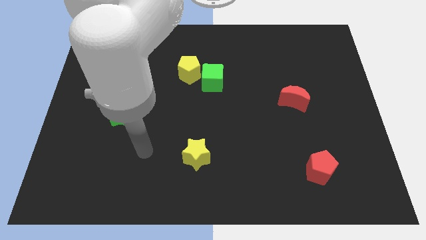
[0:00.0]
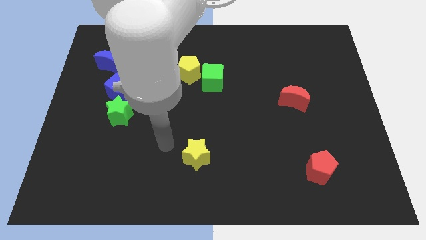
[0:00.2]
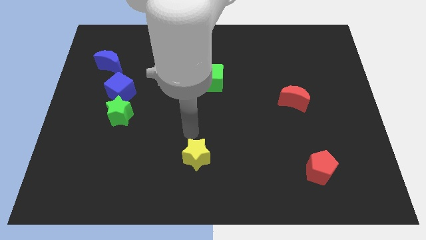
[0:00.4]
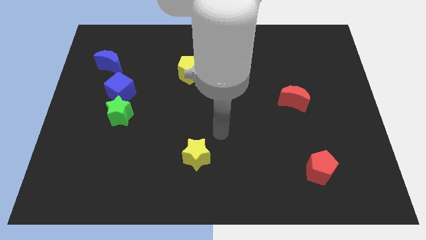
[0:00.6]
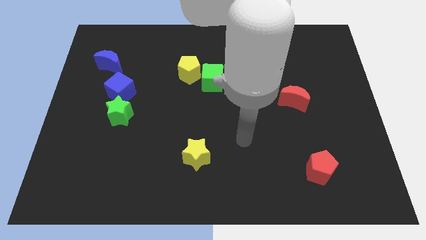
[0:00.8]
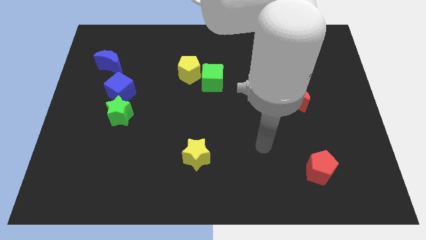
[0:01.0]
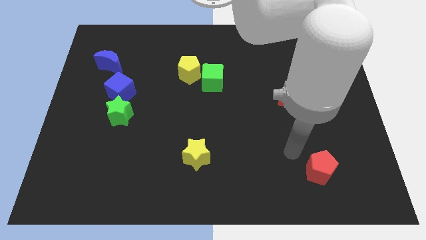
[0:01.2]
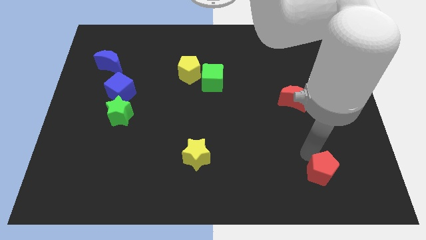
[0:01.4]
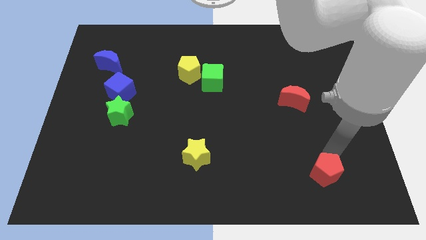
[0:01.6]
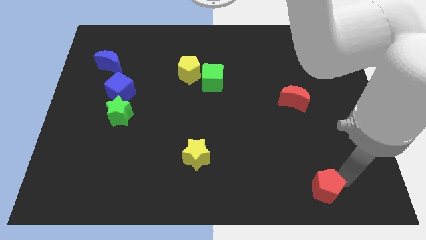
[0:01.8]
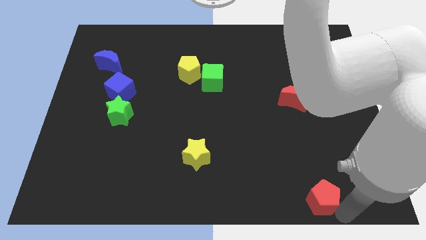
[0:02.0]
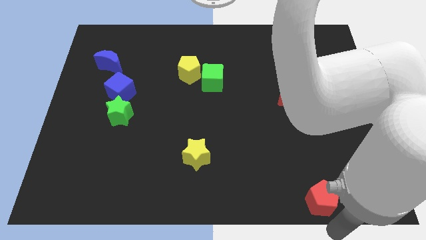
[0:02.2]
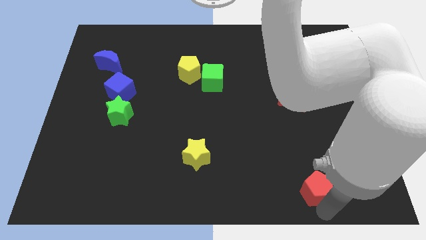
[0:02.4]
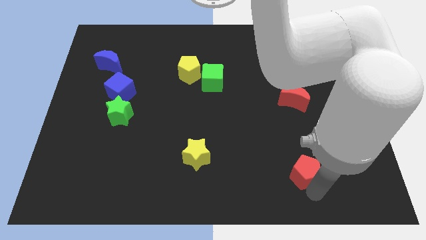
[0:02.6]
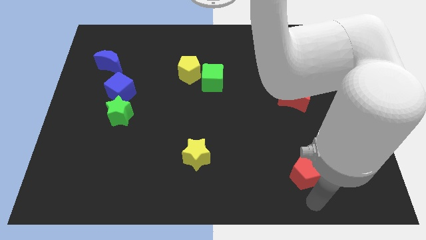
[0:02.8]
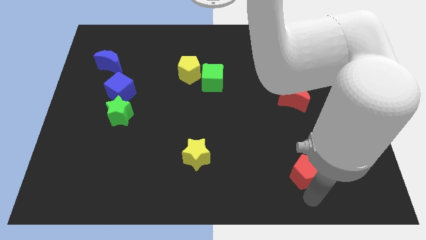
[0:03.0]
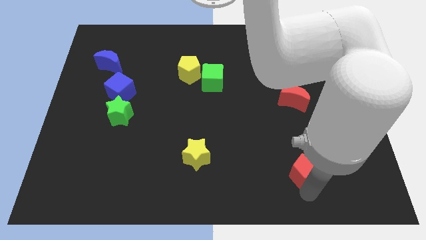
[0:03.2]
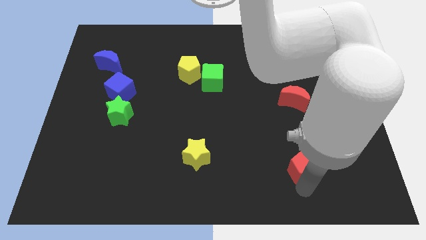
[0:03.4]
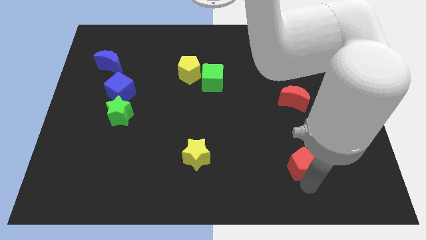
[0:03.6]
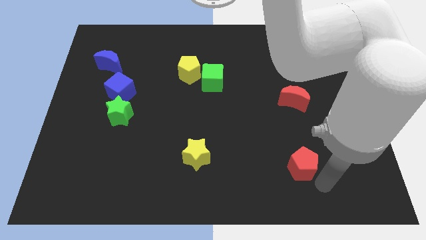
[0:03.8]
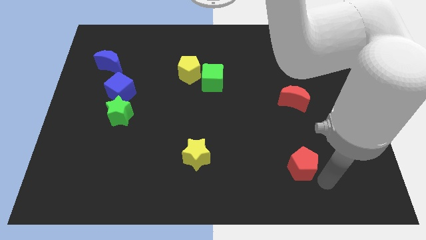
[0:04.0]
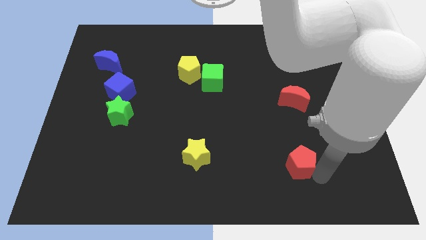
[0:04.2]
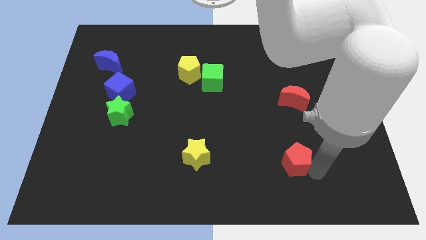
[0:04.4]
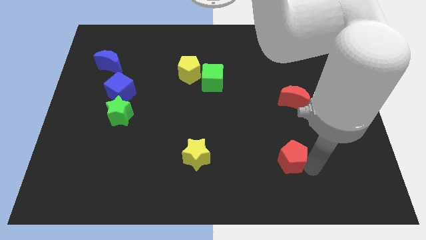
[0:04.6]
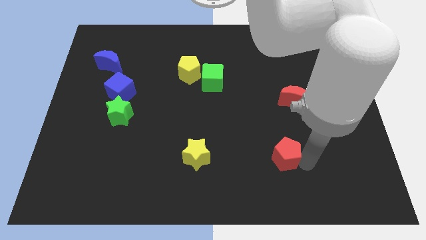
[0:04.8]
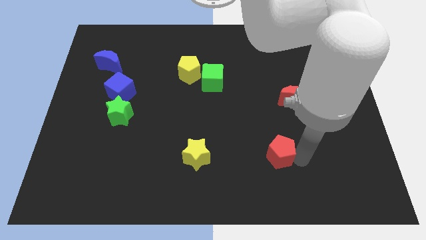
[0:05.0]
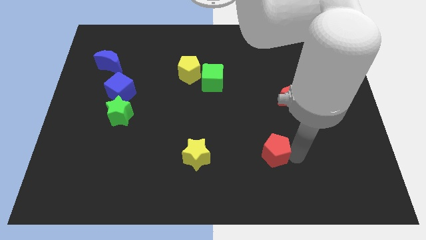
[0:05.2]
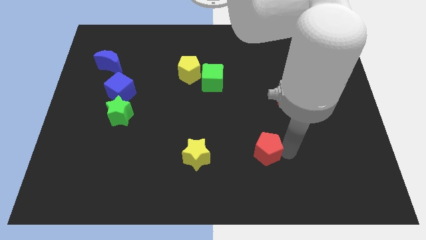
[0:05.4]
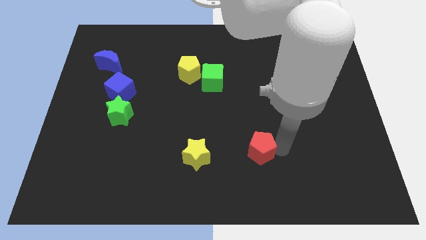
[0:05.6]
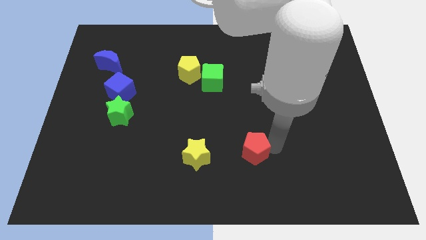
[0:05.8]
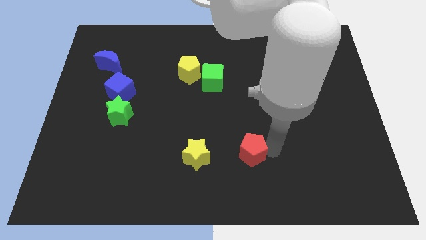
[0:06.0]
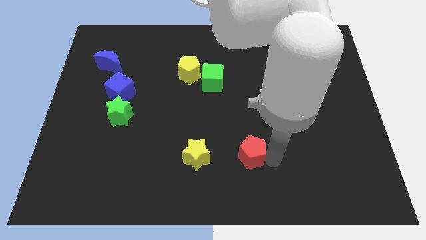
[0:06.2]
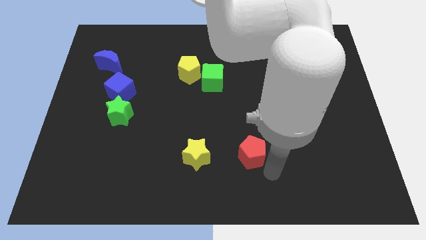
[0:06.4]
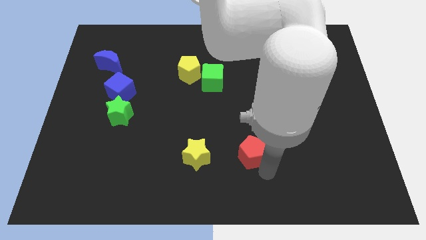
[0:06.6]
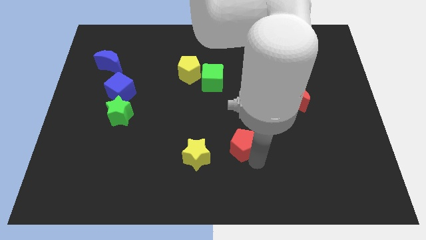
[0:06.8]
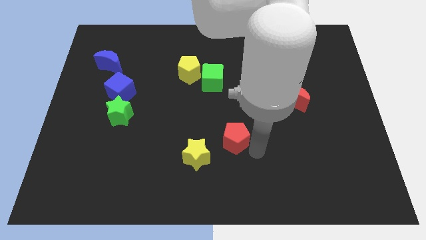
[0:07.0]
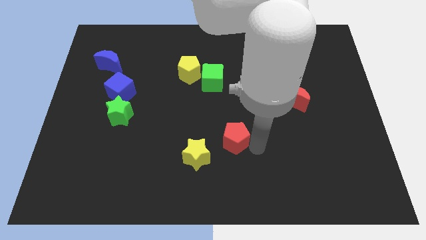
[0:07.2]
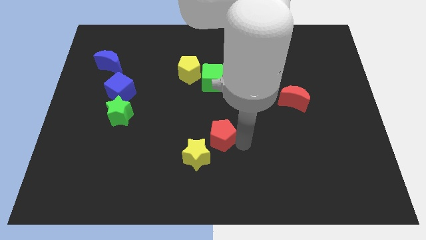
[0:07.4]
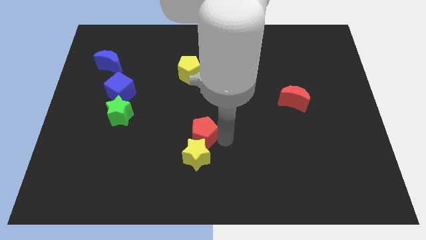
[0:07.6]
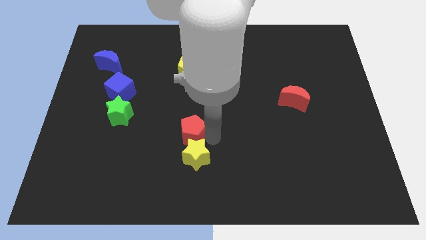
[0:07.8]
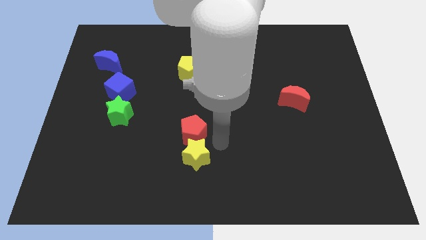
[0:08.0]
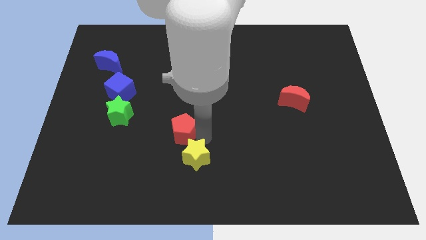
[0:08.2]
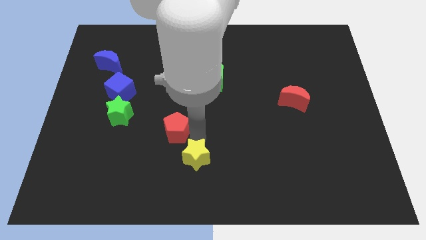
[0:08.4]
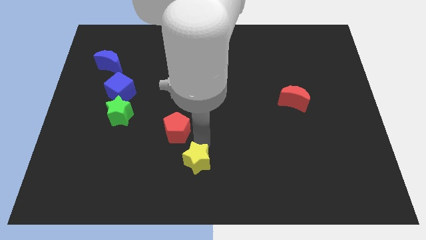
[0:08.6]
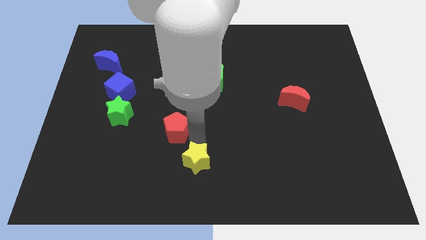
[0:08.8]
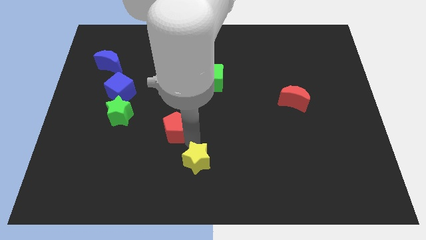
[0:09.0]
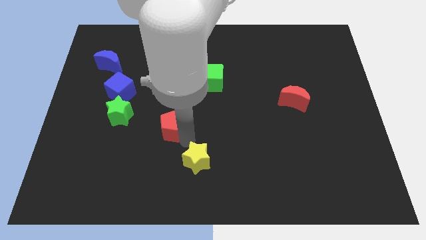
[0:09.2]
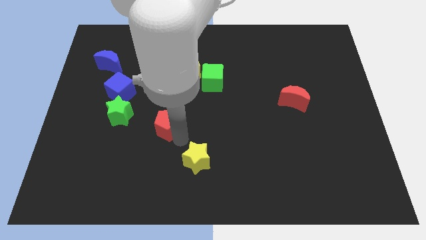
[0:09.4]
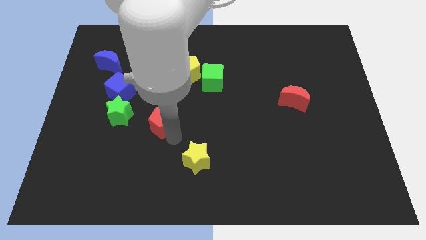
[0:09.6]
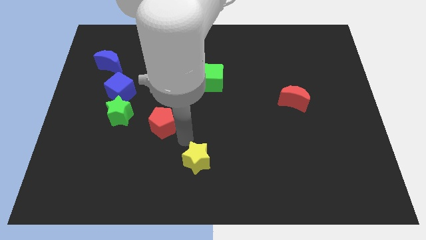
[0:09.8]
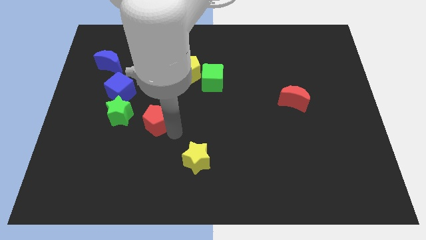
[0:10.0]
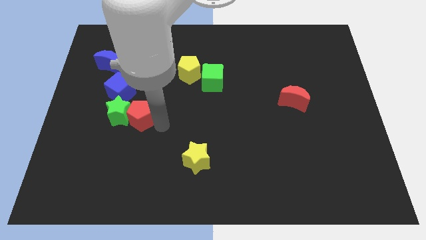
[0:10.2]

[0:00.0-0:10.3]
slide the red pentagon next to the green star

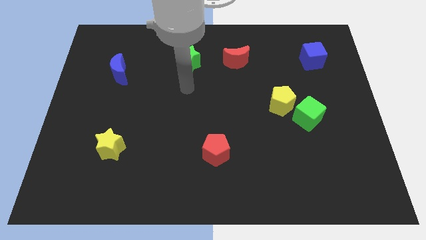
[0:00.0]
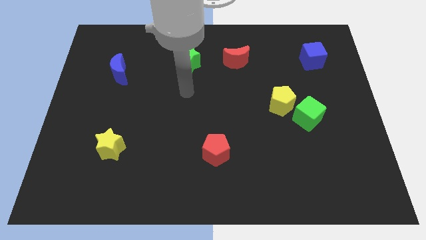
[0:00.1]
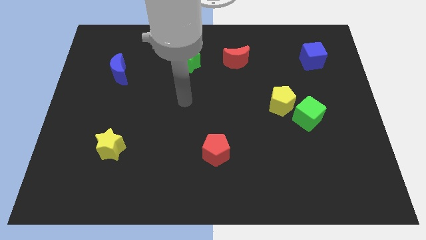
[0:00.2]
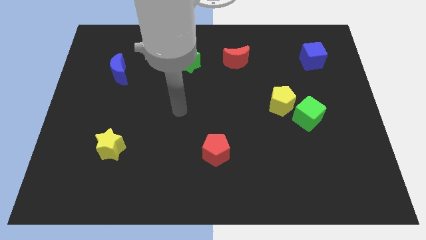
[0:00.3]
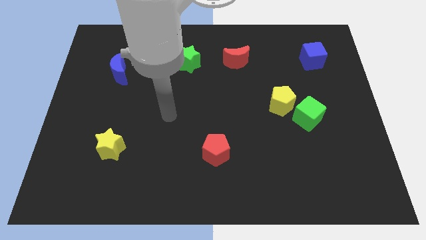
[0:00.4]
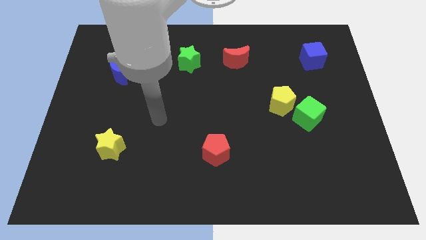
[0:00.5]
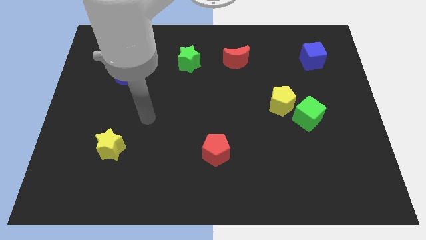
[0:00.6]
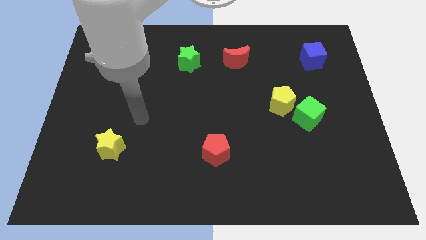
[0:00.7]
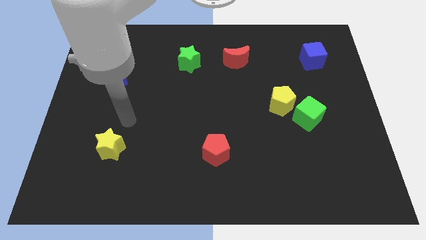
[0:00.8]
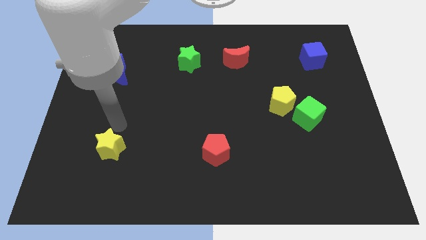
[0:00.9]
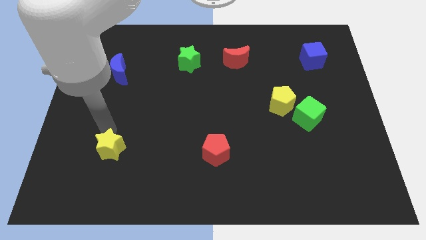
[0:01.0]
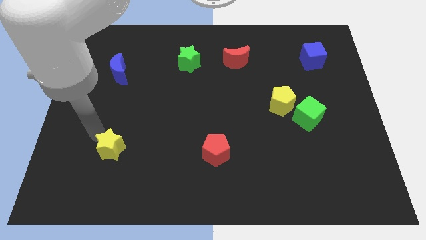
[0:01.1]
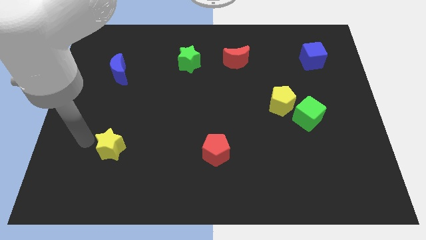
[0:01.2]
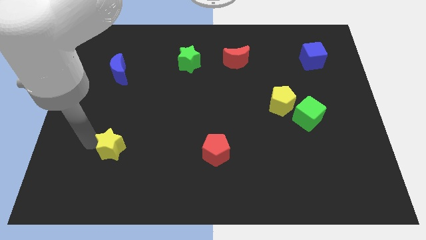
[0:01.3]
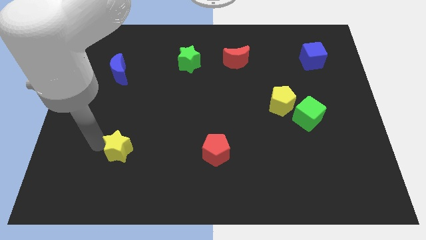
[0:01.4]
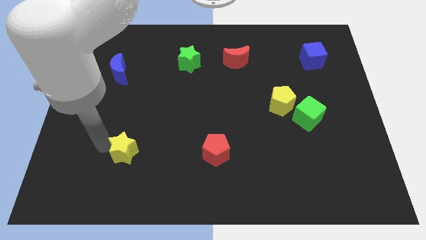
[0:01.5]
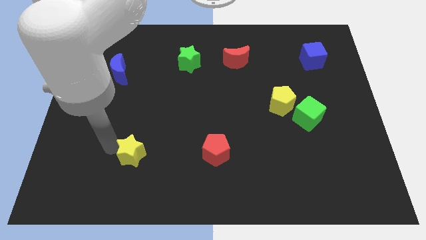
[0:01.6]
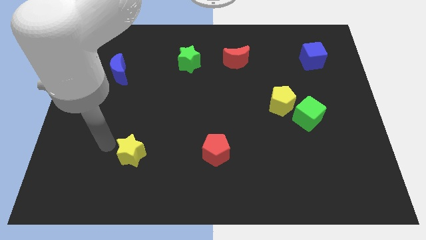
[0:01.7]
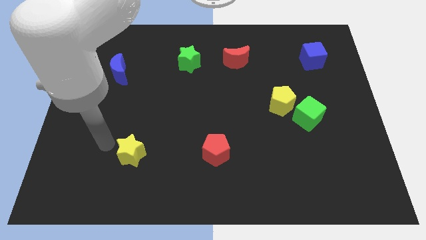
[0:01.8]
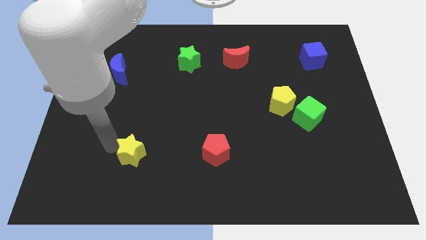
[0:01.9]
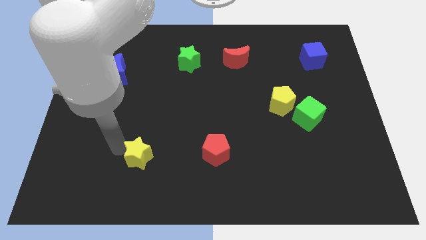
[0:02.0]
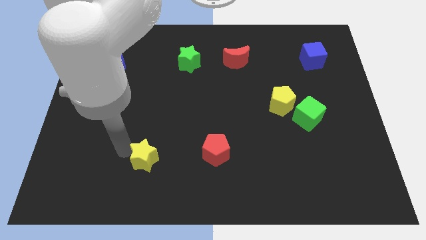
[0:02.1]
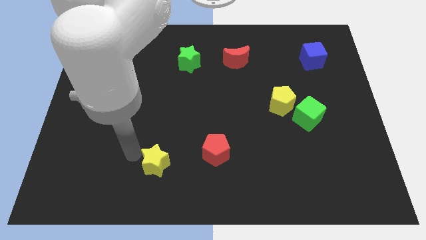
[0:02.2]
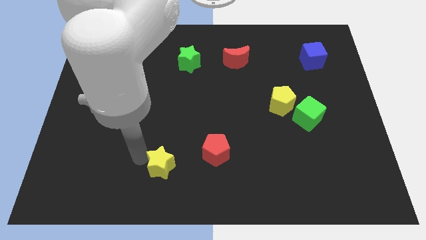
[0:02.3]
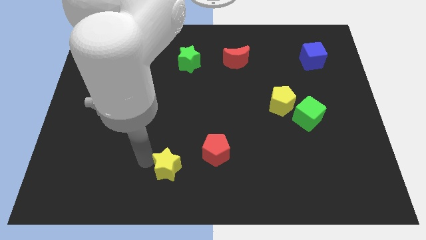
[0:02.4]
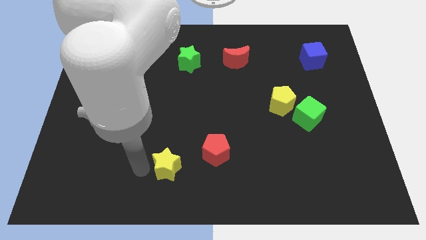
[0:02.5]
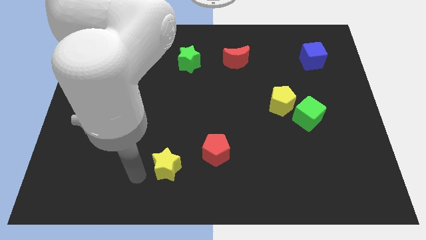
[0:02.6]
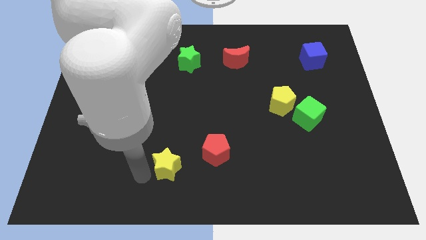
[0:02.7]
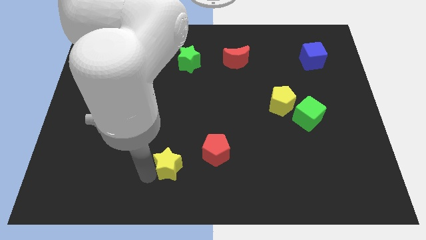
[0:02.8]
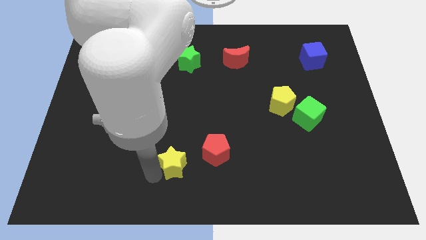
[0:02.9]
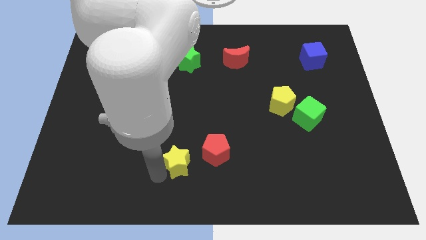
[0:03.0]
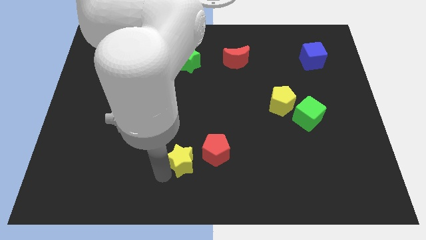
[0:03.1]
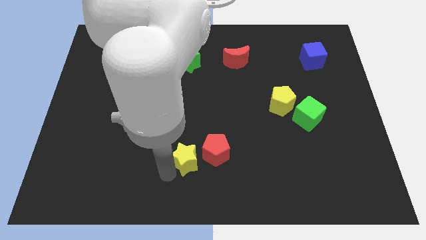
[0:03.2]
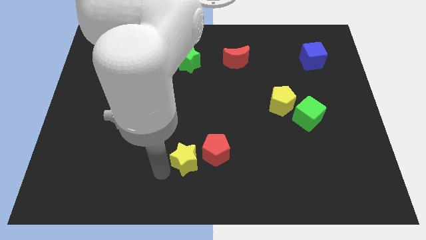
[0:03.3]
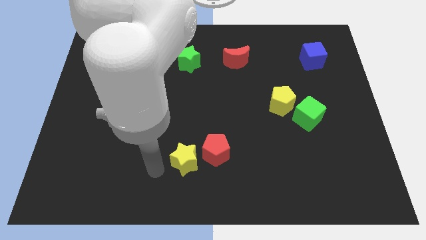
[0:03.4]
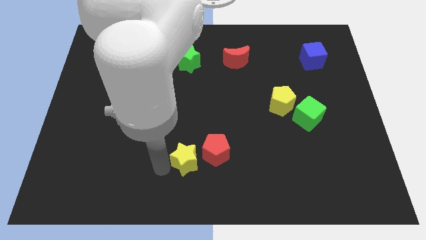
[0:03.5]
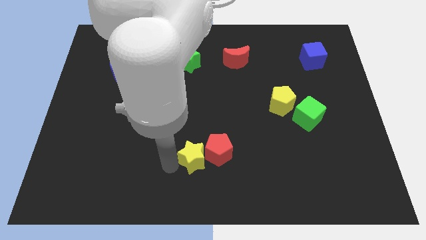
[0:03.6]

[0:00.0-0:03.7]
put the yellow star to the red pentagon
